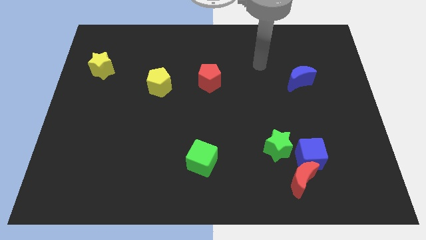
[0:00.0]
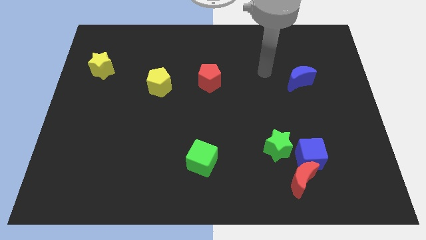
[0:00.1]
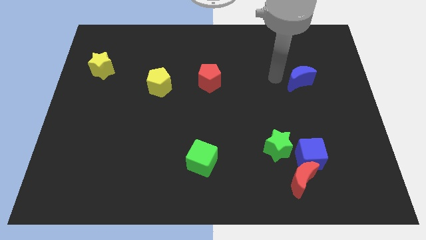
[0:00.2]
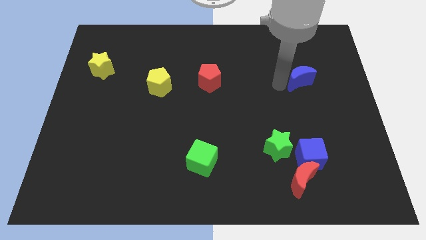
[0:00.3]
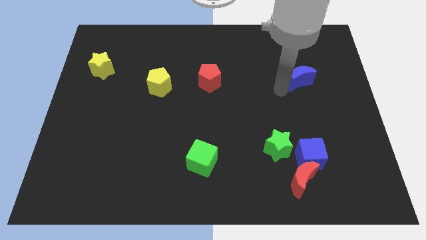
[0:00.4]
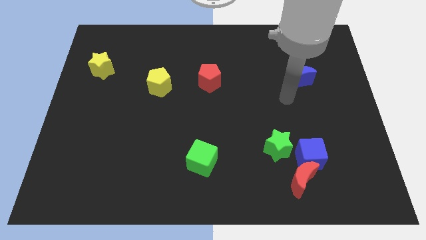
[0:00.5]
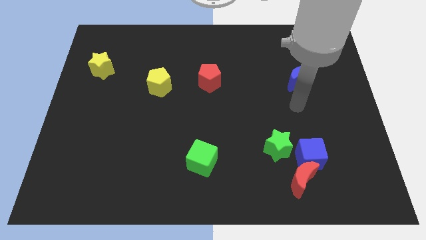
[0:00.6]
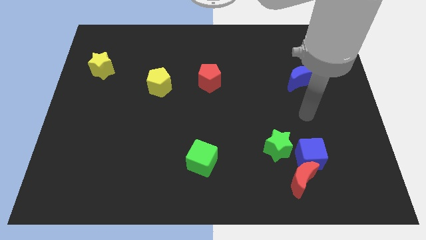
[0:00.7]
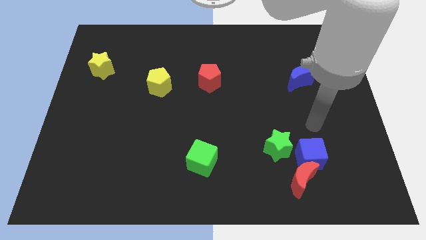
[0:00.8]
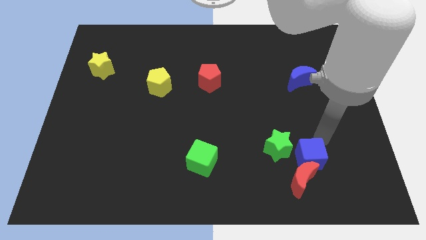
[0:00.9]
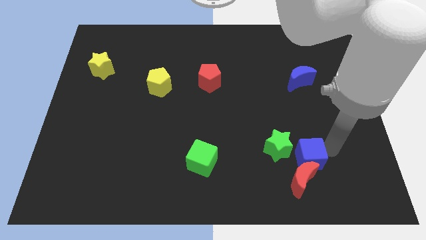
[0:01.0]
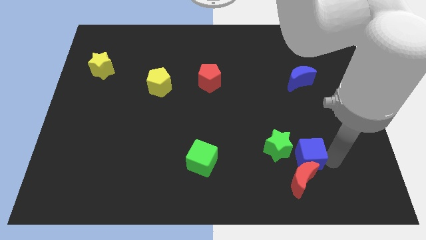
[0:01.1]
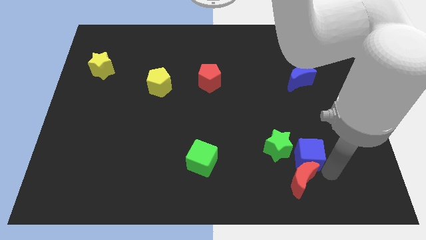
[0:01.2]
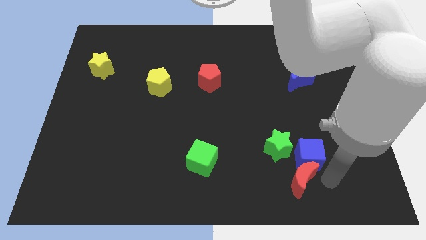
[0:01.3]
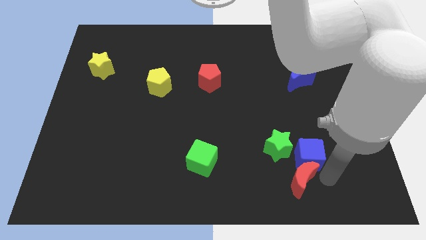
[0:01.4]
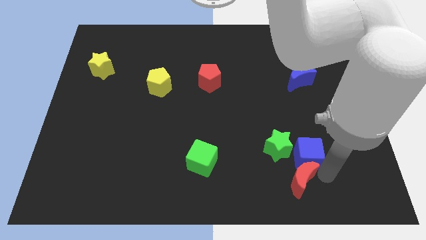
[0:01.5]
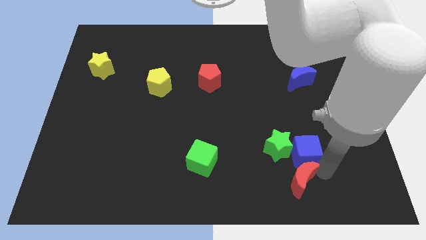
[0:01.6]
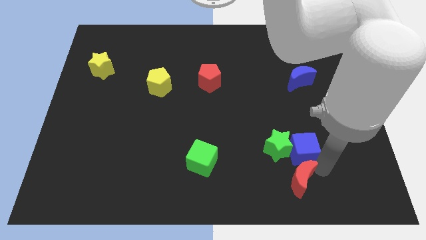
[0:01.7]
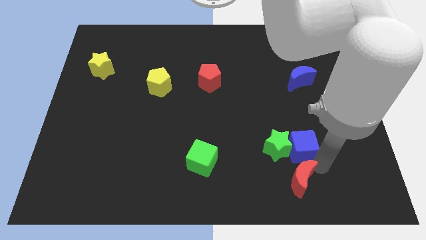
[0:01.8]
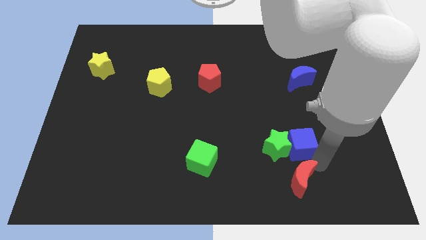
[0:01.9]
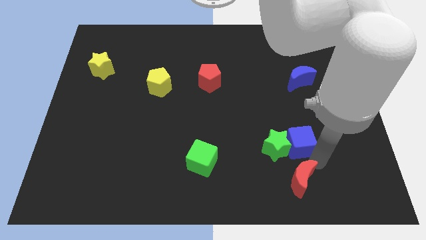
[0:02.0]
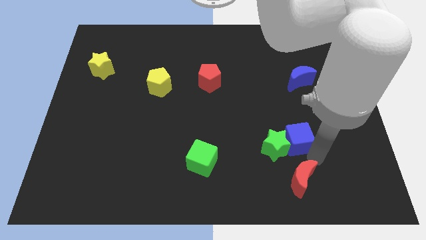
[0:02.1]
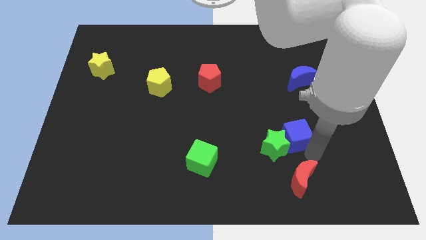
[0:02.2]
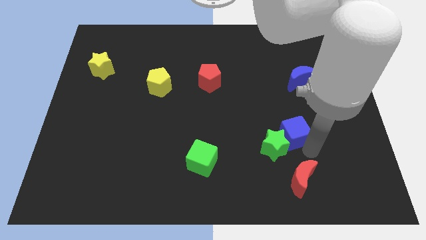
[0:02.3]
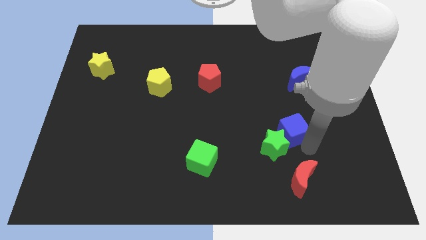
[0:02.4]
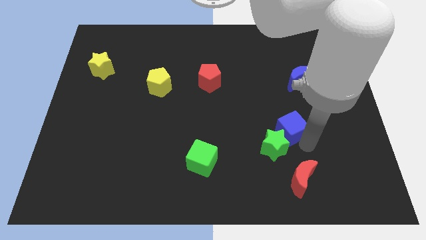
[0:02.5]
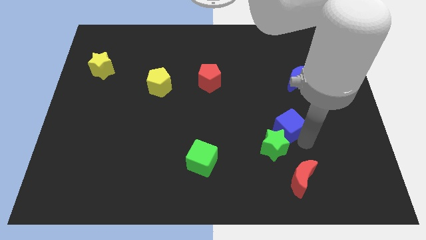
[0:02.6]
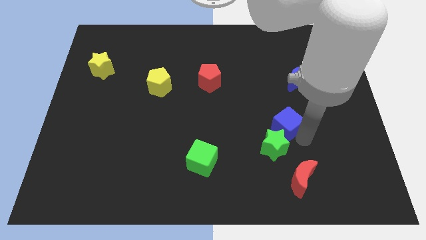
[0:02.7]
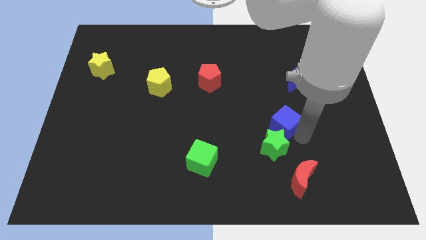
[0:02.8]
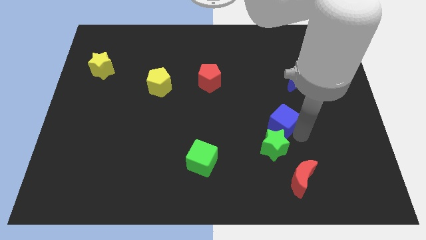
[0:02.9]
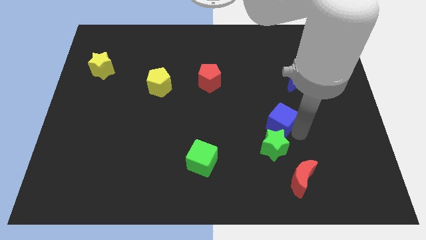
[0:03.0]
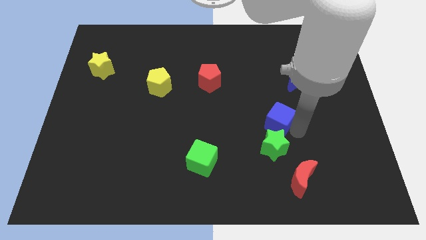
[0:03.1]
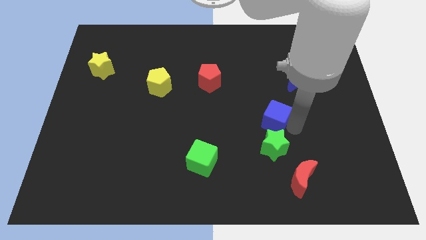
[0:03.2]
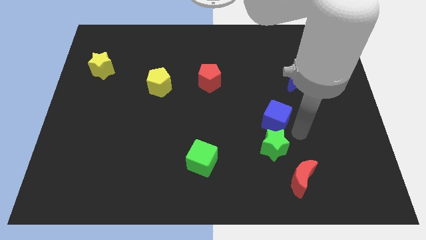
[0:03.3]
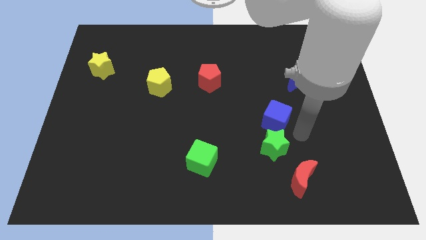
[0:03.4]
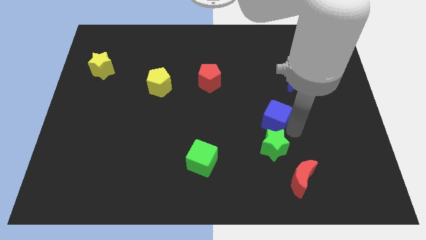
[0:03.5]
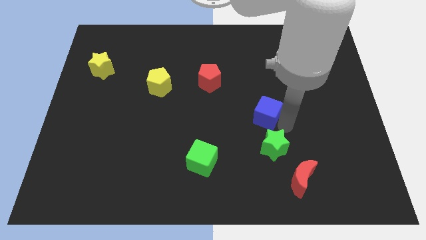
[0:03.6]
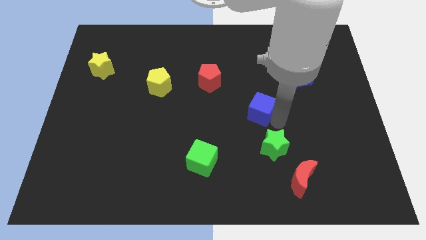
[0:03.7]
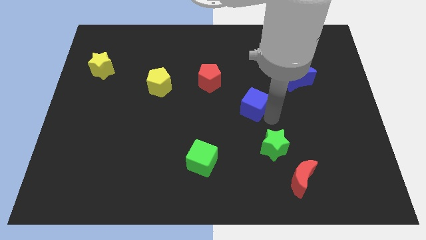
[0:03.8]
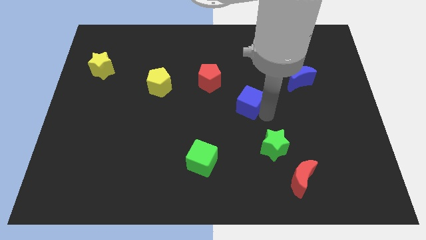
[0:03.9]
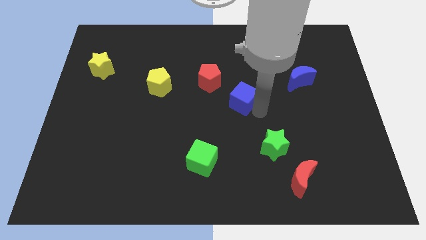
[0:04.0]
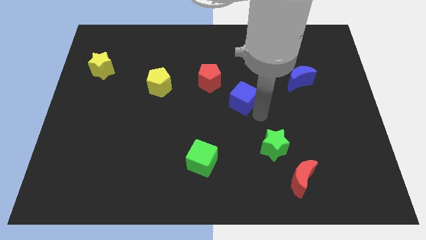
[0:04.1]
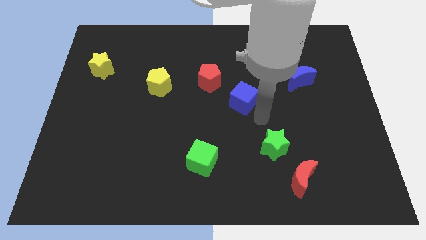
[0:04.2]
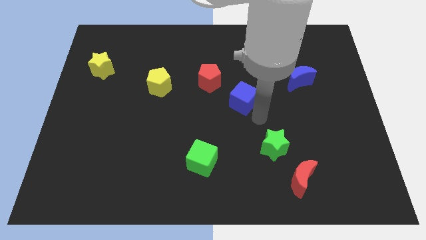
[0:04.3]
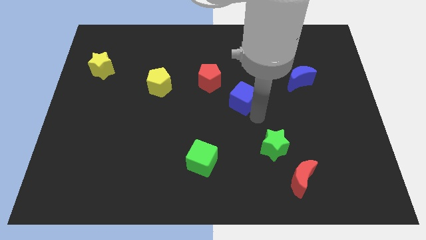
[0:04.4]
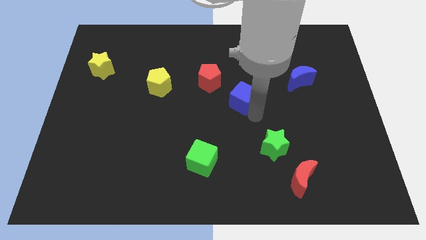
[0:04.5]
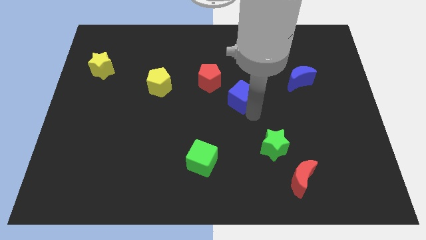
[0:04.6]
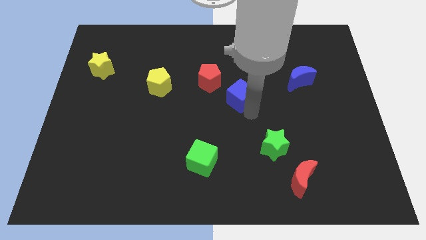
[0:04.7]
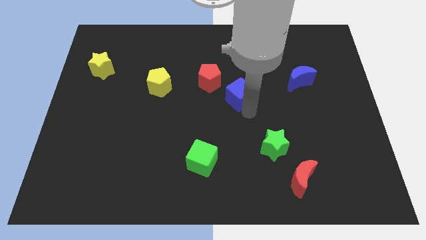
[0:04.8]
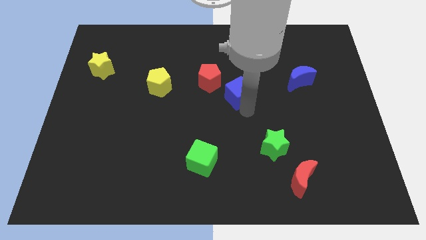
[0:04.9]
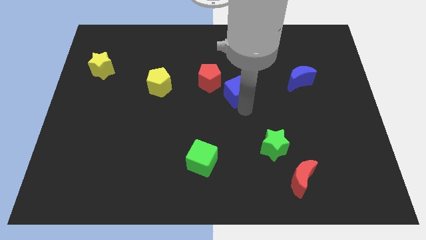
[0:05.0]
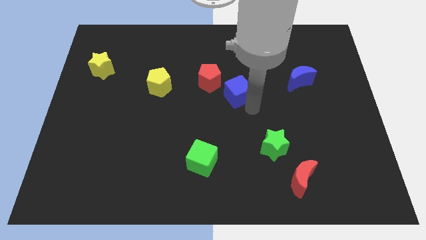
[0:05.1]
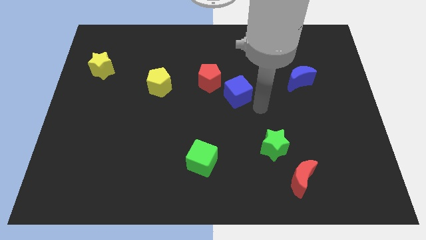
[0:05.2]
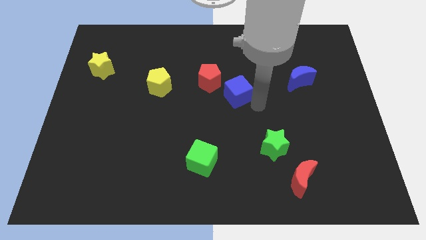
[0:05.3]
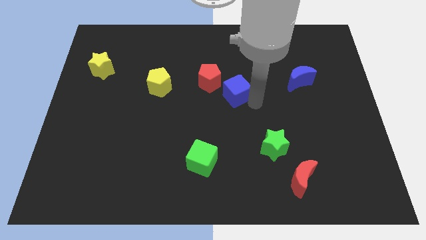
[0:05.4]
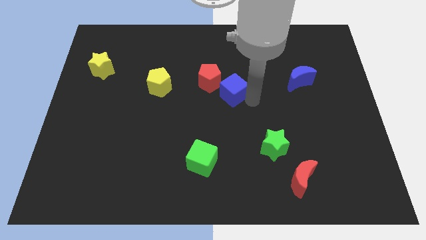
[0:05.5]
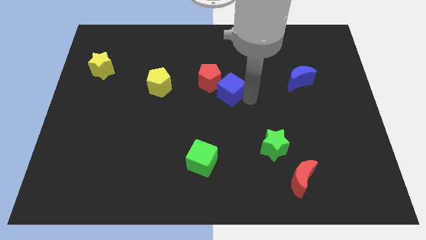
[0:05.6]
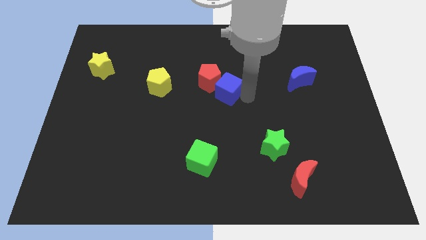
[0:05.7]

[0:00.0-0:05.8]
slide the blue cube towards the red pentagon

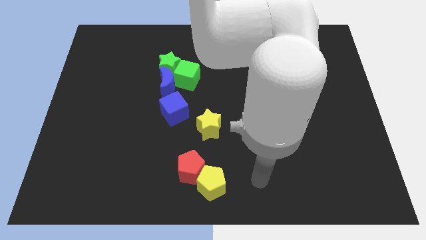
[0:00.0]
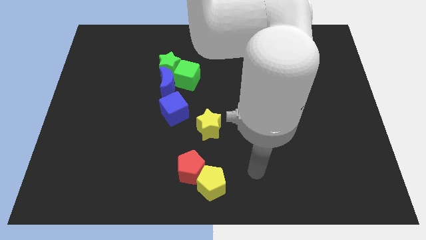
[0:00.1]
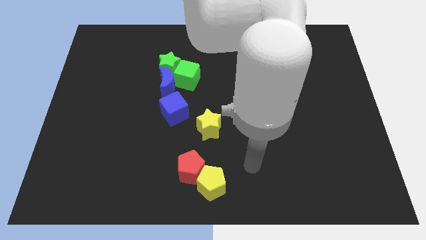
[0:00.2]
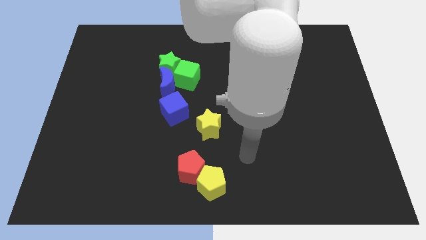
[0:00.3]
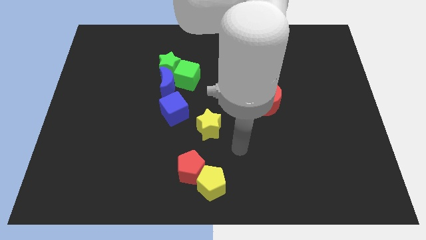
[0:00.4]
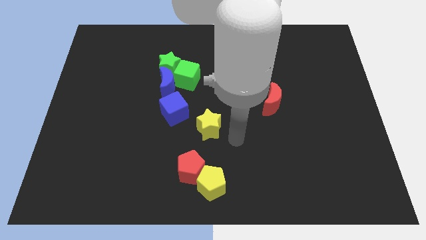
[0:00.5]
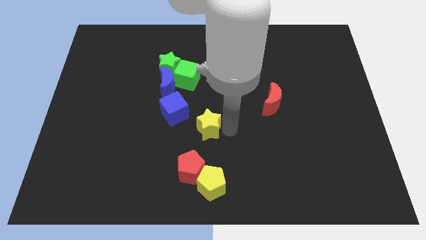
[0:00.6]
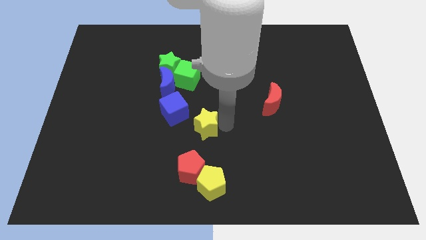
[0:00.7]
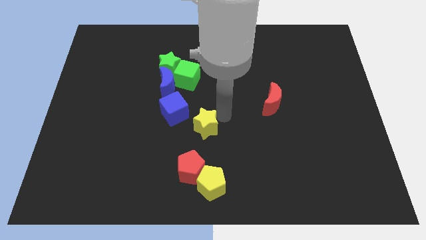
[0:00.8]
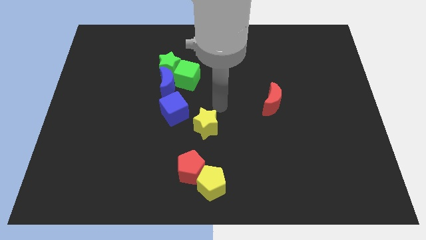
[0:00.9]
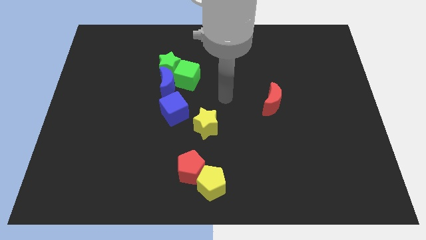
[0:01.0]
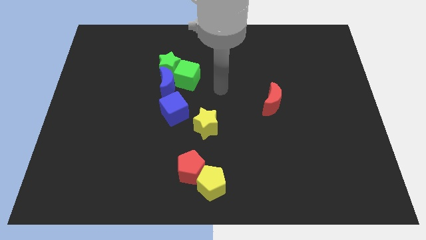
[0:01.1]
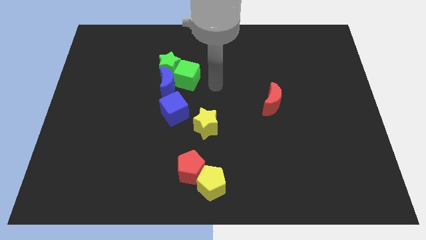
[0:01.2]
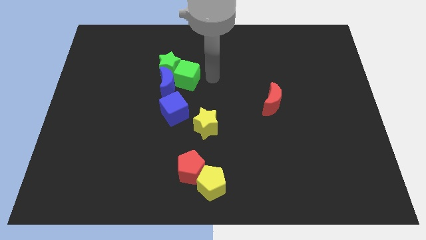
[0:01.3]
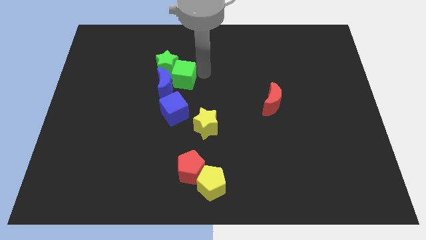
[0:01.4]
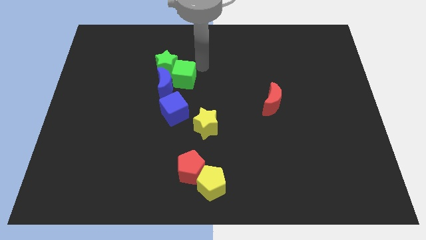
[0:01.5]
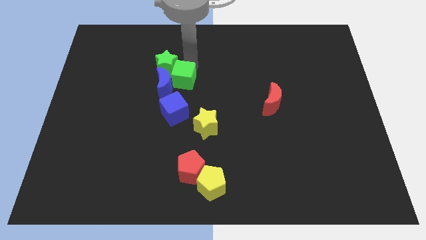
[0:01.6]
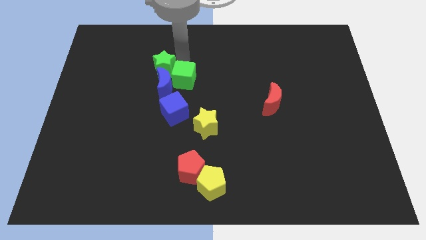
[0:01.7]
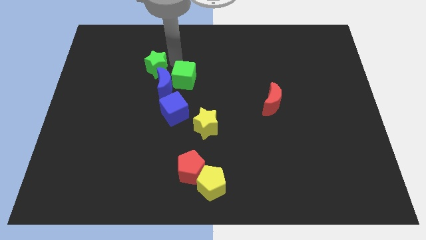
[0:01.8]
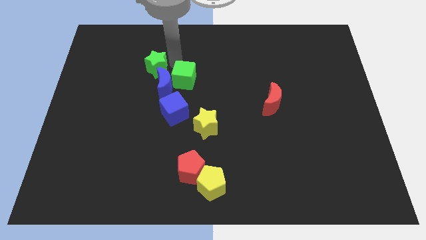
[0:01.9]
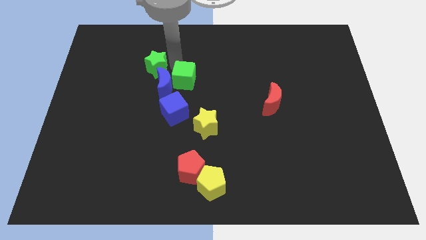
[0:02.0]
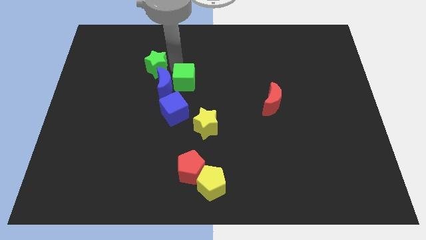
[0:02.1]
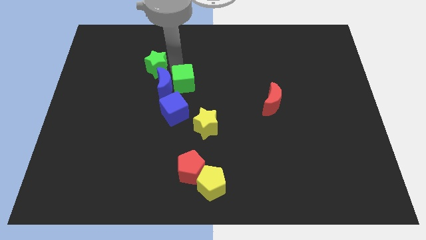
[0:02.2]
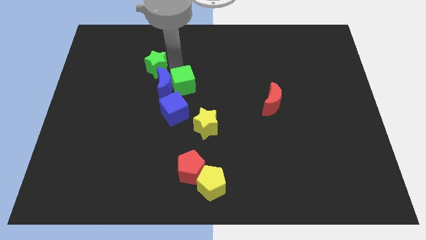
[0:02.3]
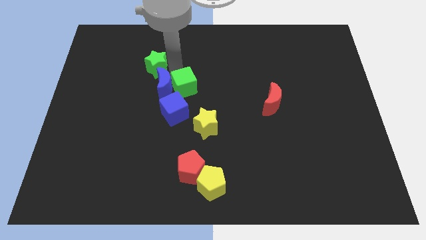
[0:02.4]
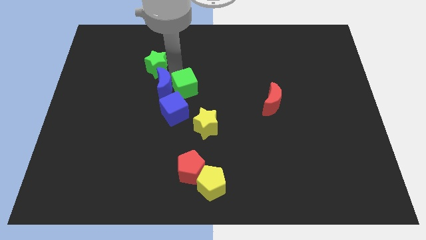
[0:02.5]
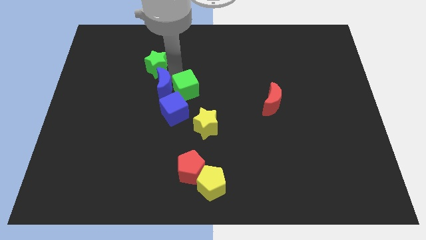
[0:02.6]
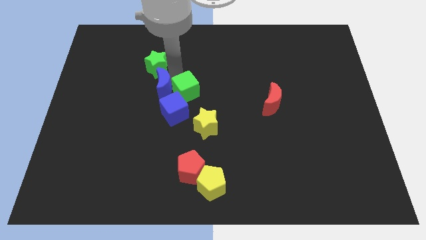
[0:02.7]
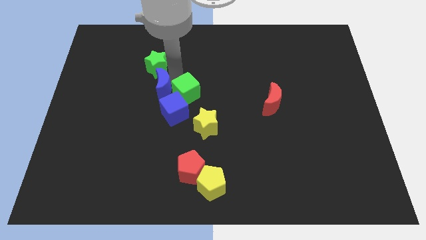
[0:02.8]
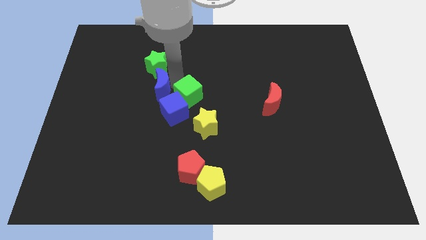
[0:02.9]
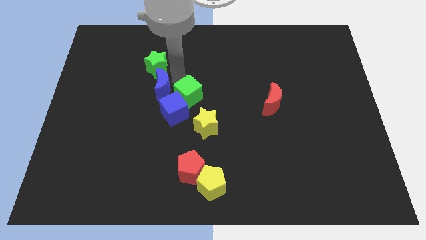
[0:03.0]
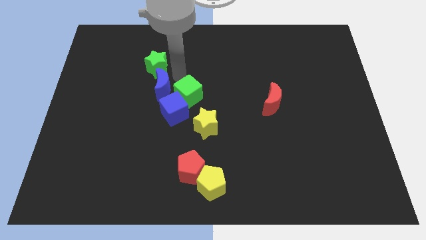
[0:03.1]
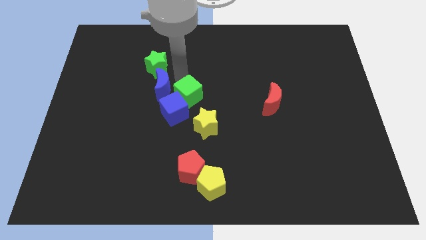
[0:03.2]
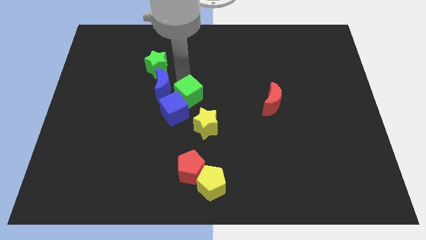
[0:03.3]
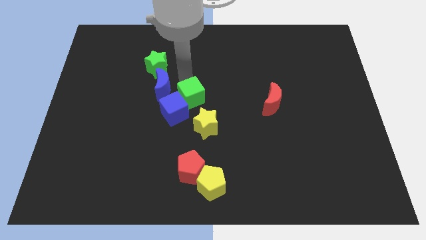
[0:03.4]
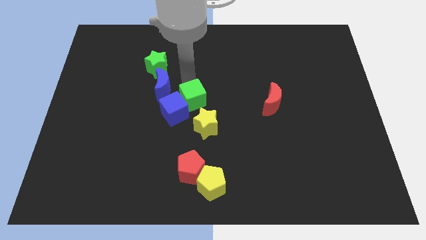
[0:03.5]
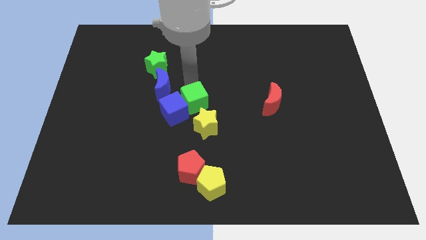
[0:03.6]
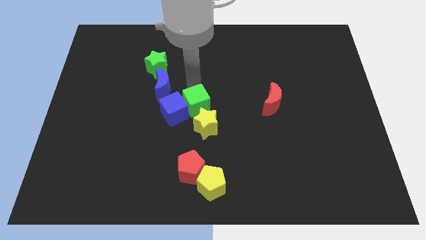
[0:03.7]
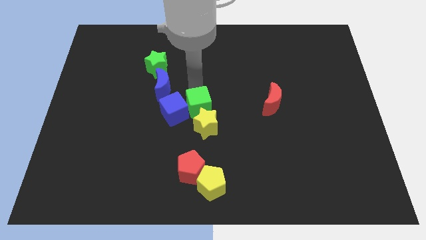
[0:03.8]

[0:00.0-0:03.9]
push the green cube next to the yellow star
